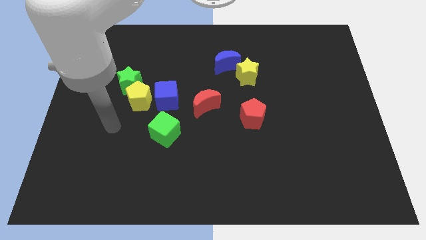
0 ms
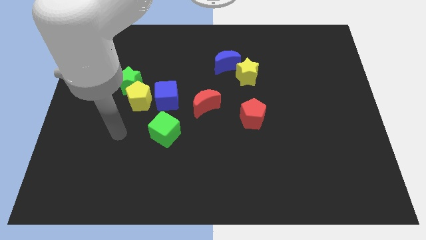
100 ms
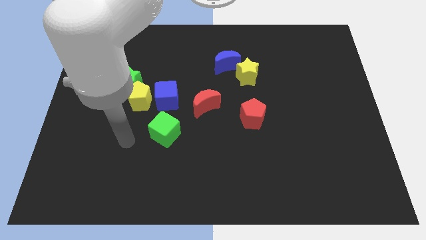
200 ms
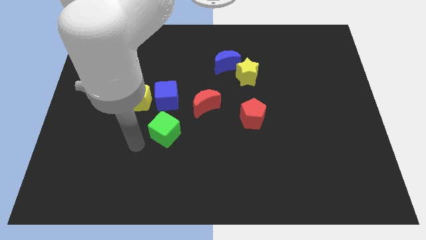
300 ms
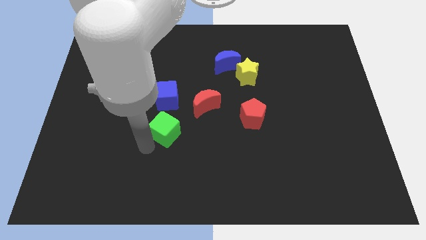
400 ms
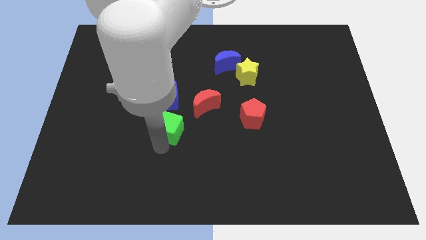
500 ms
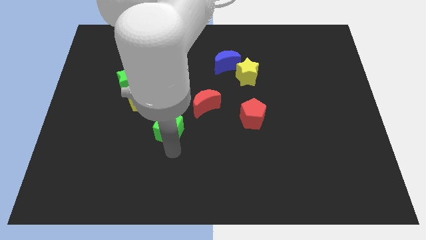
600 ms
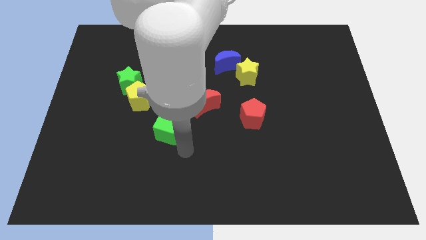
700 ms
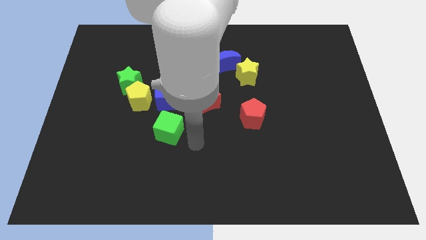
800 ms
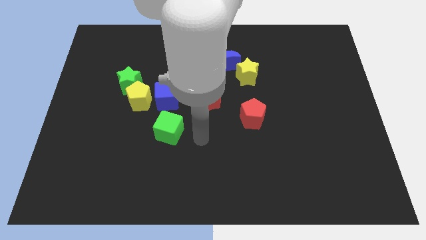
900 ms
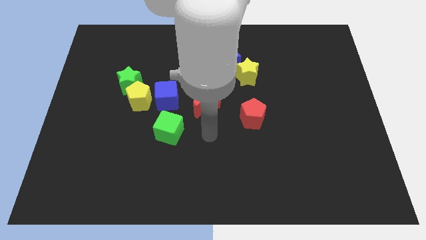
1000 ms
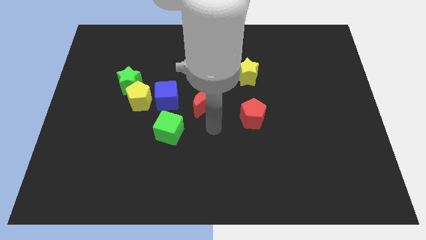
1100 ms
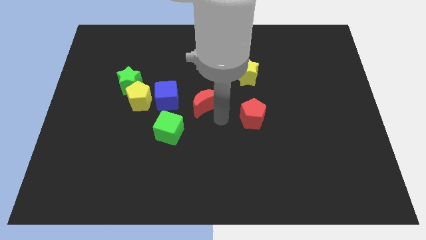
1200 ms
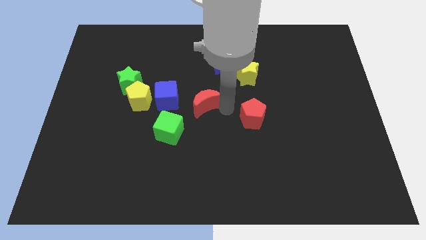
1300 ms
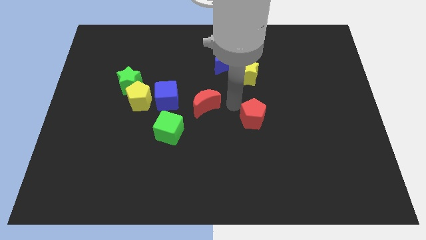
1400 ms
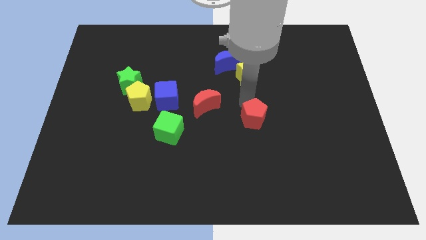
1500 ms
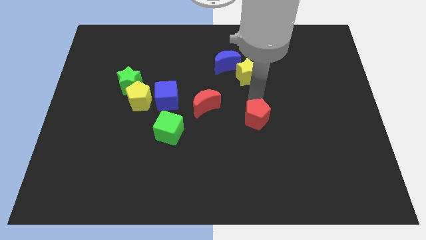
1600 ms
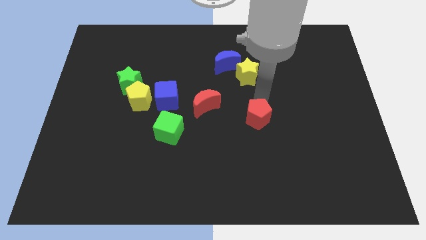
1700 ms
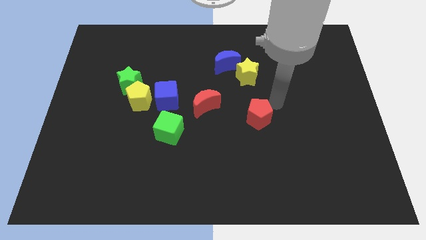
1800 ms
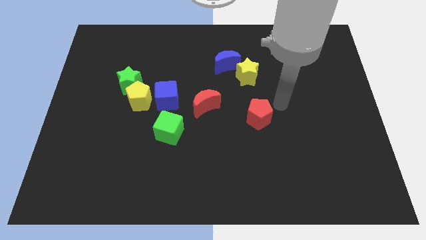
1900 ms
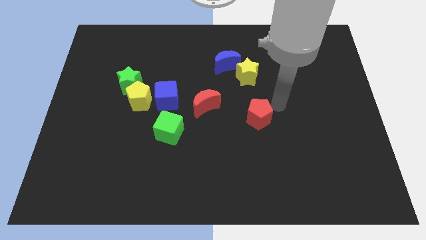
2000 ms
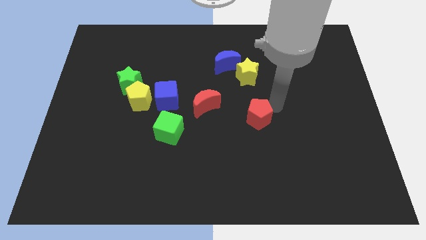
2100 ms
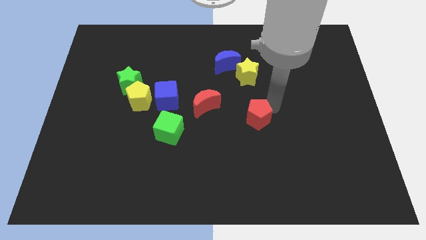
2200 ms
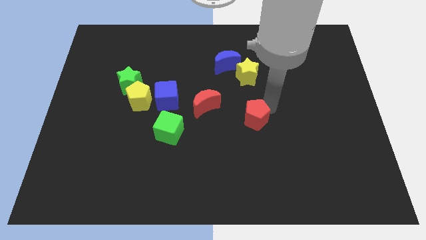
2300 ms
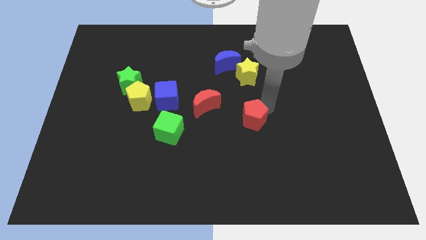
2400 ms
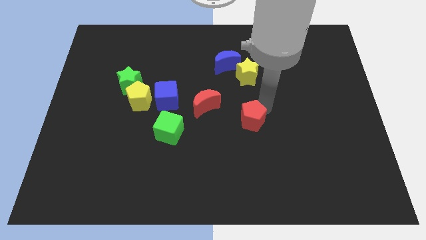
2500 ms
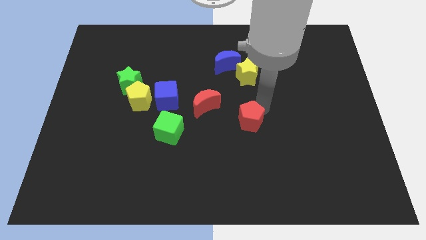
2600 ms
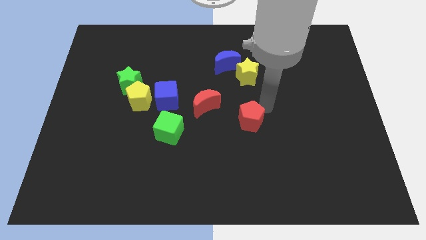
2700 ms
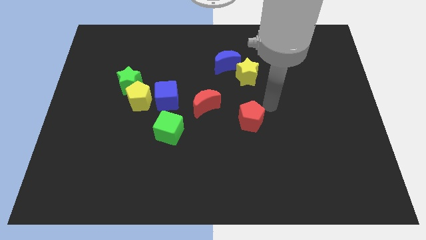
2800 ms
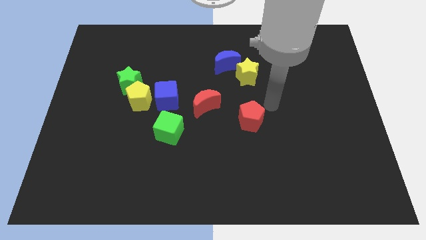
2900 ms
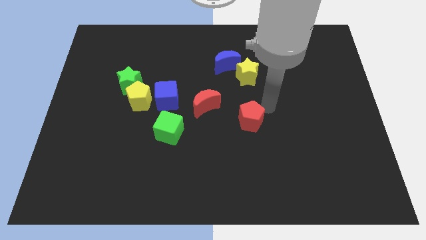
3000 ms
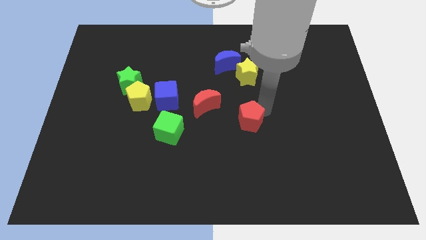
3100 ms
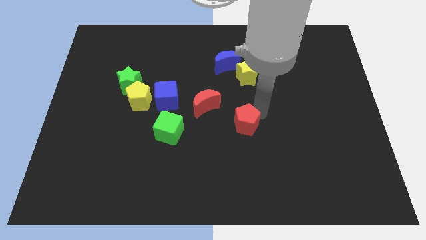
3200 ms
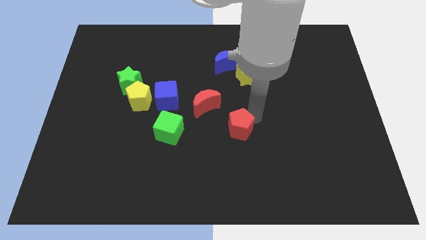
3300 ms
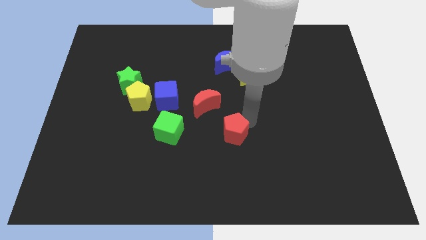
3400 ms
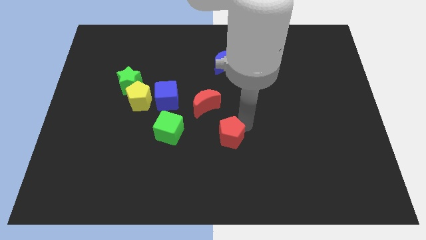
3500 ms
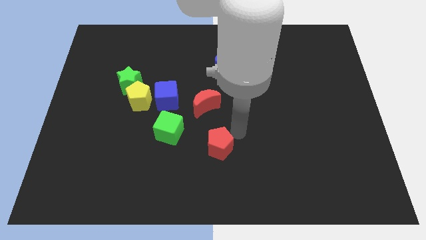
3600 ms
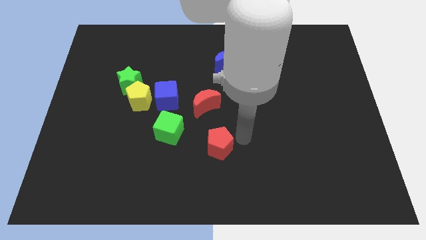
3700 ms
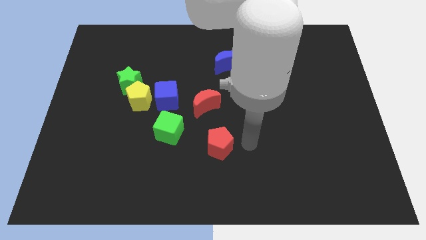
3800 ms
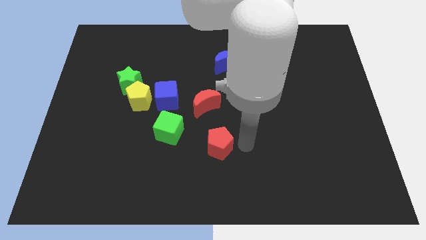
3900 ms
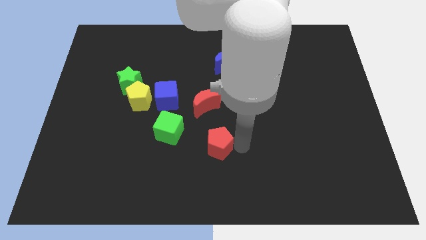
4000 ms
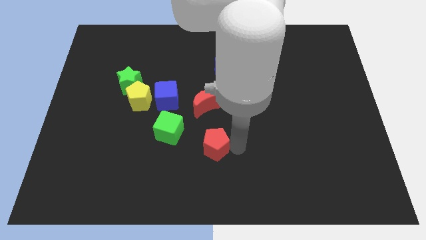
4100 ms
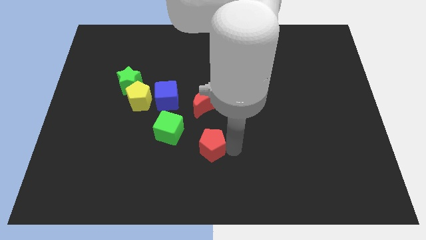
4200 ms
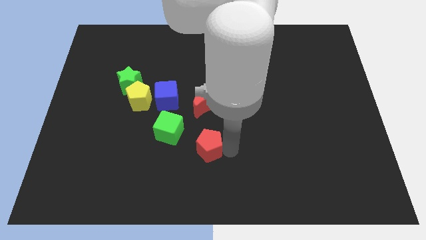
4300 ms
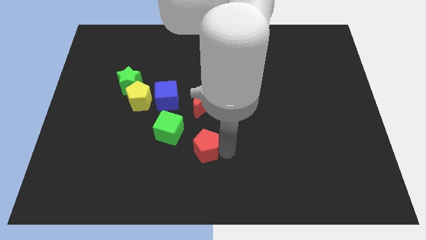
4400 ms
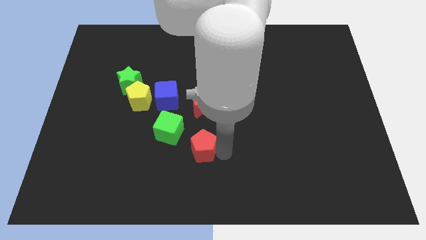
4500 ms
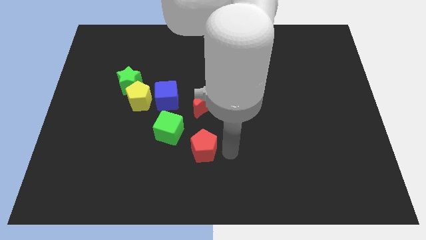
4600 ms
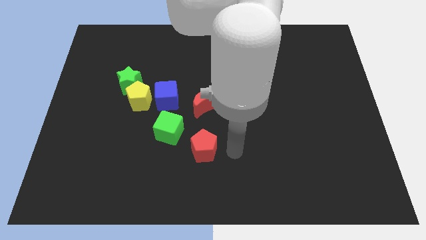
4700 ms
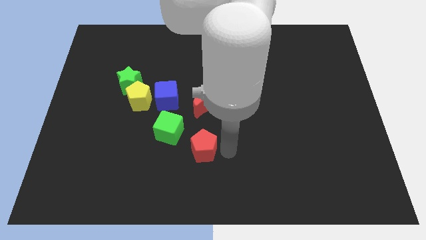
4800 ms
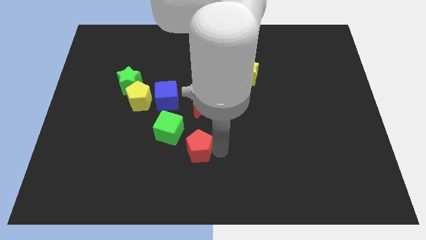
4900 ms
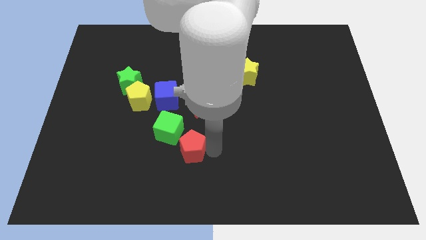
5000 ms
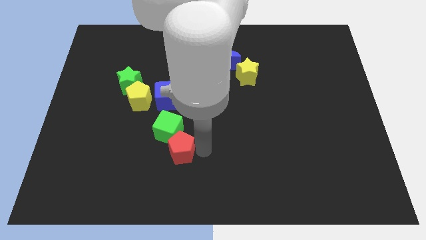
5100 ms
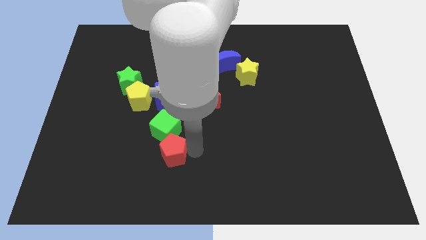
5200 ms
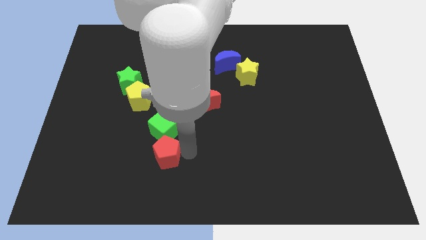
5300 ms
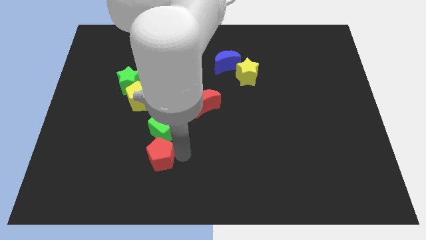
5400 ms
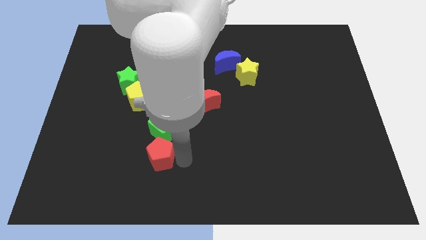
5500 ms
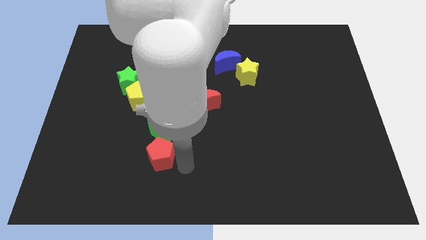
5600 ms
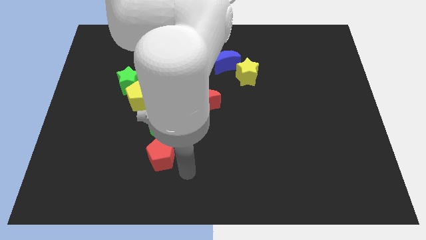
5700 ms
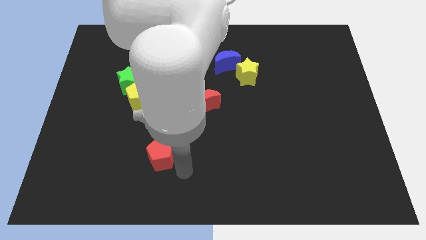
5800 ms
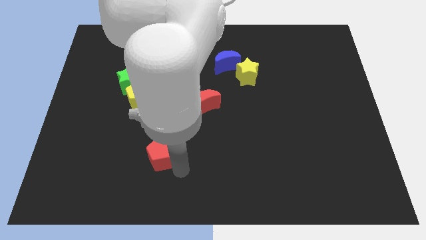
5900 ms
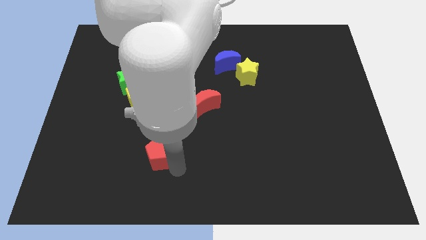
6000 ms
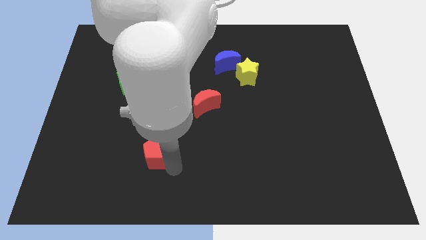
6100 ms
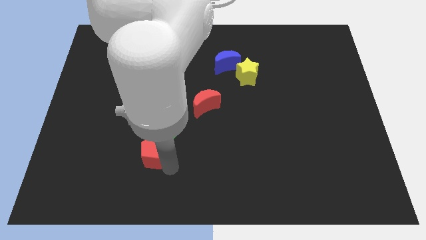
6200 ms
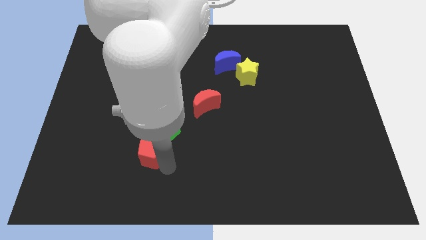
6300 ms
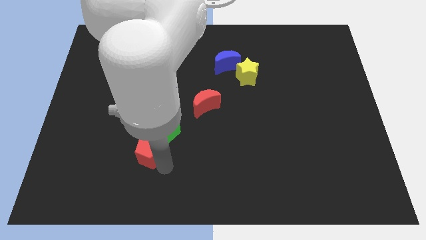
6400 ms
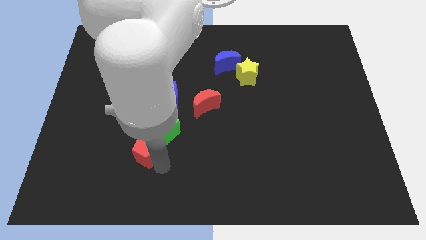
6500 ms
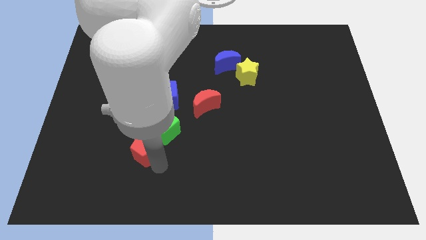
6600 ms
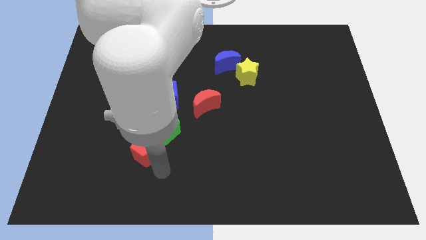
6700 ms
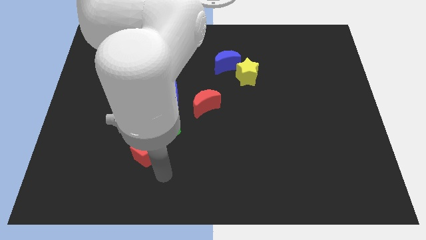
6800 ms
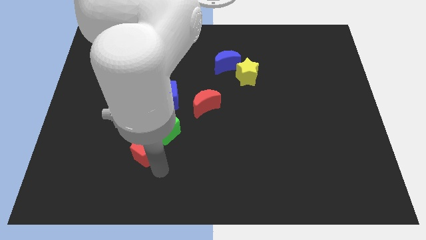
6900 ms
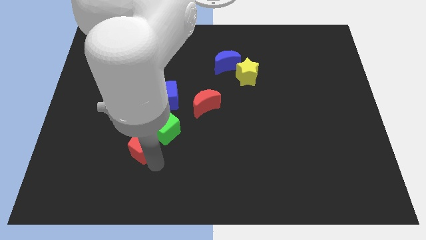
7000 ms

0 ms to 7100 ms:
move the red pentagon left

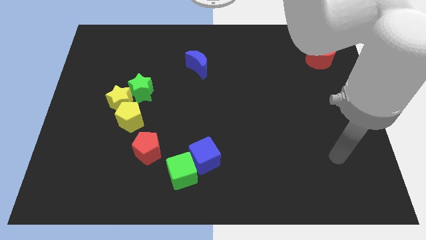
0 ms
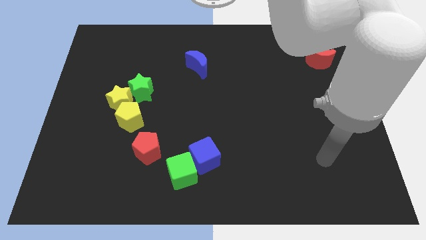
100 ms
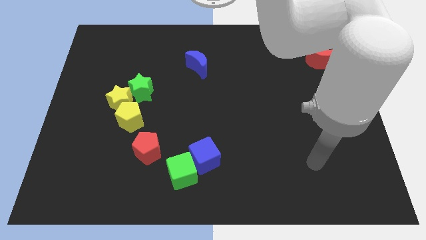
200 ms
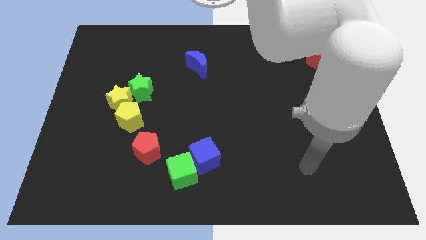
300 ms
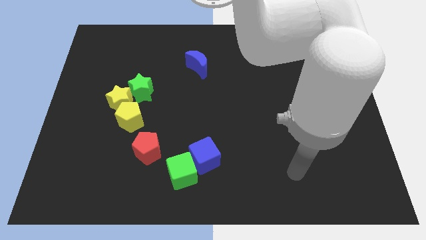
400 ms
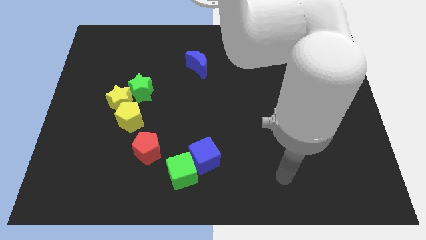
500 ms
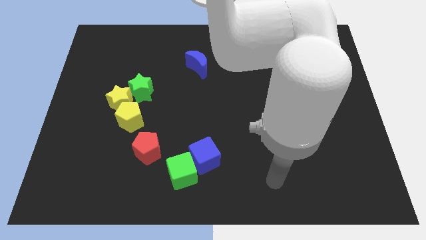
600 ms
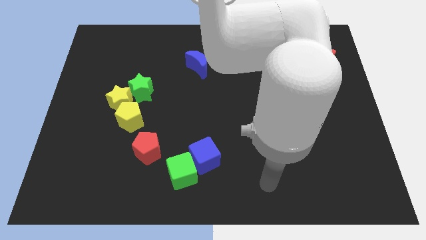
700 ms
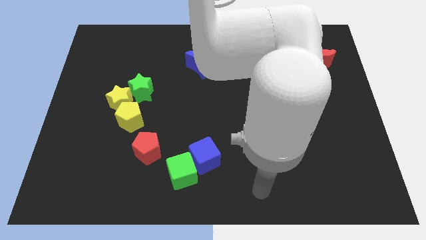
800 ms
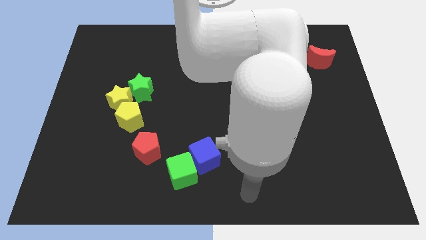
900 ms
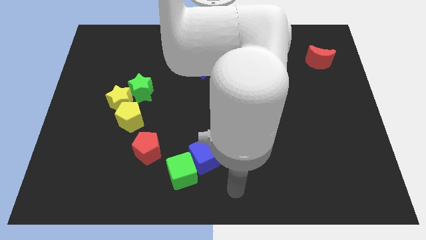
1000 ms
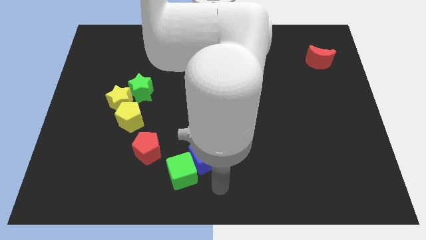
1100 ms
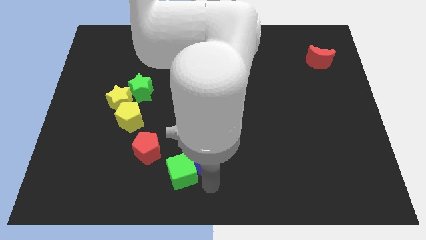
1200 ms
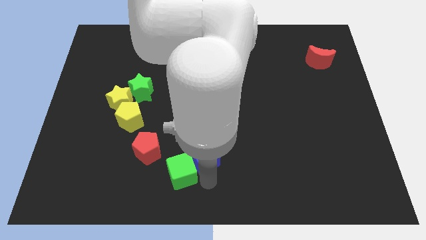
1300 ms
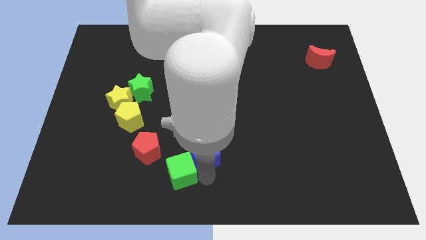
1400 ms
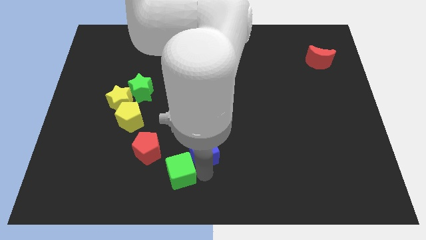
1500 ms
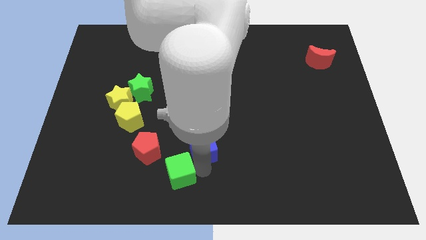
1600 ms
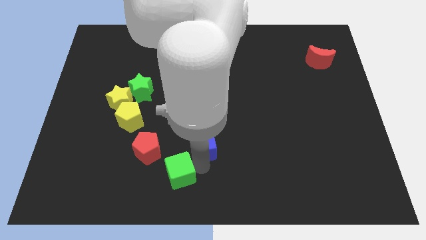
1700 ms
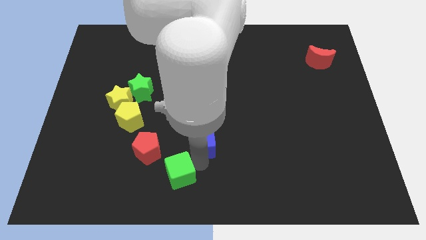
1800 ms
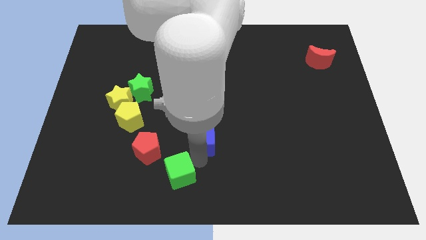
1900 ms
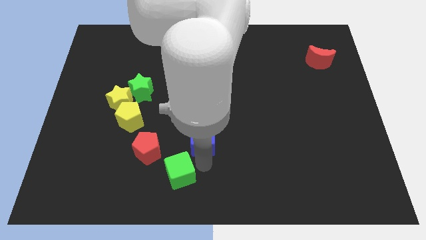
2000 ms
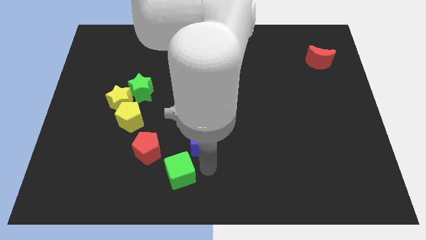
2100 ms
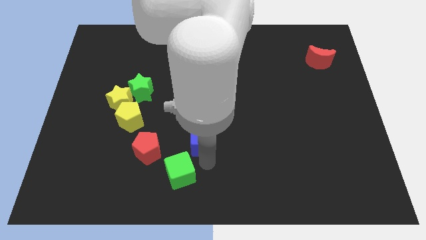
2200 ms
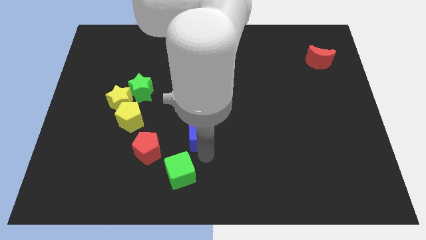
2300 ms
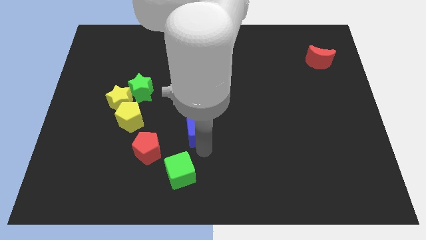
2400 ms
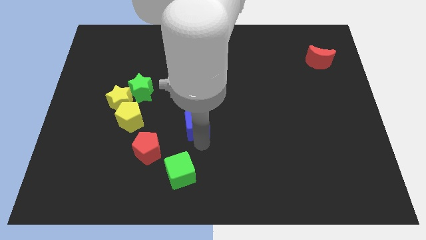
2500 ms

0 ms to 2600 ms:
slightly move the blue cube up
